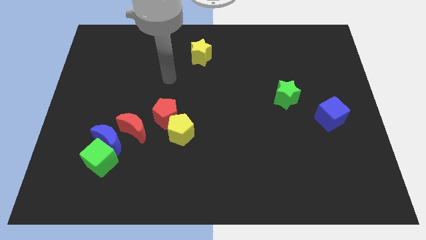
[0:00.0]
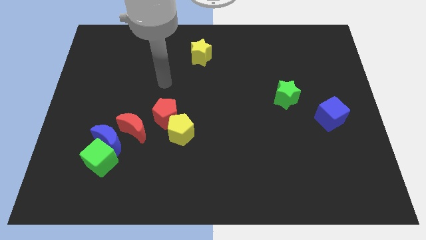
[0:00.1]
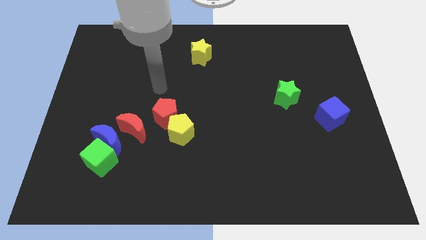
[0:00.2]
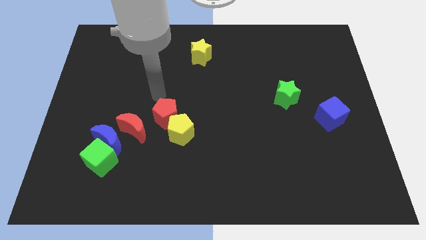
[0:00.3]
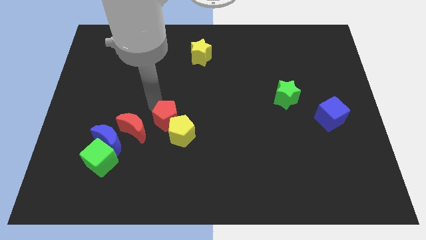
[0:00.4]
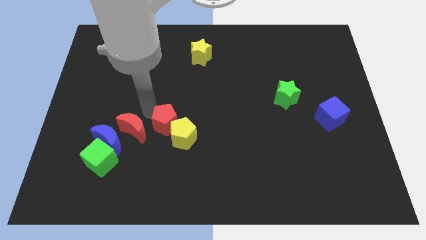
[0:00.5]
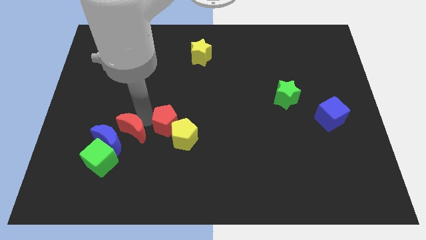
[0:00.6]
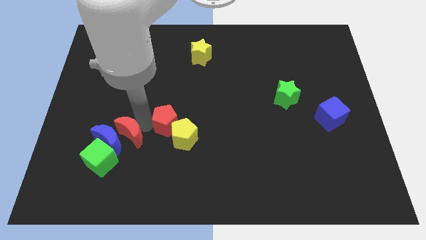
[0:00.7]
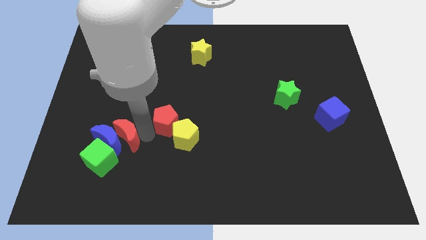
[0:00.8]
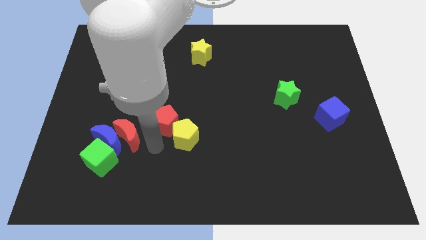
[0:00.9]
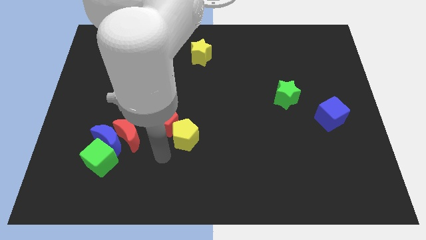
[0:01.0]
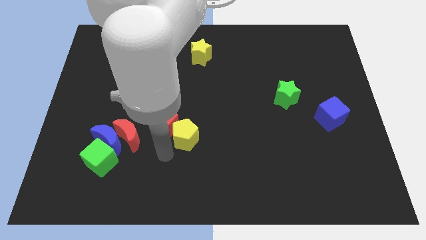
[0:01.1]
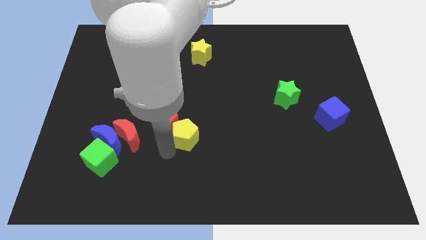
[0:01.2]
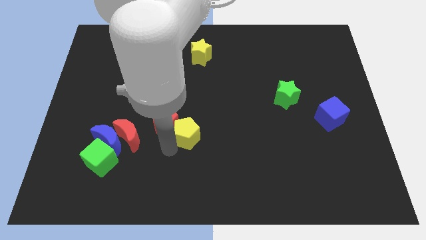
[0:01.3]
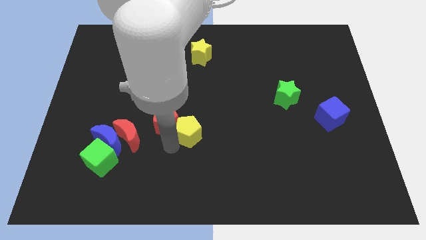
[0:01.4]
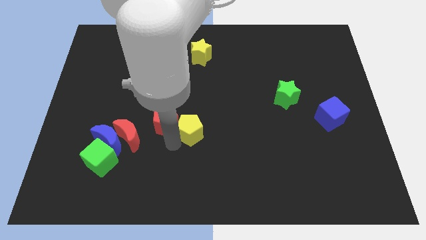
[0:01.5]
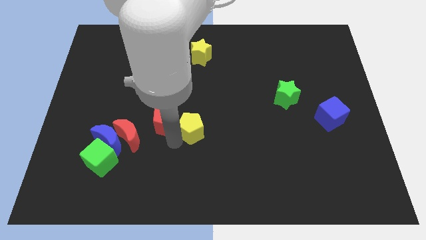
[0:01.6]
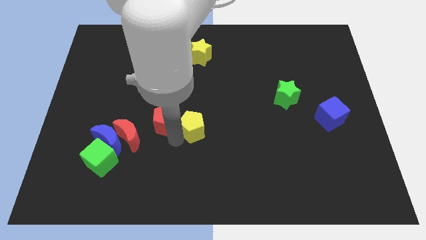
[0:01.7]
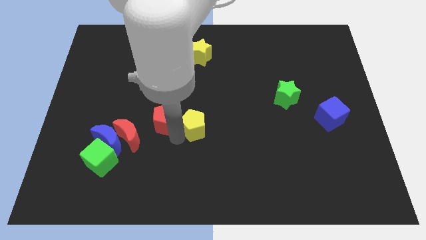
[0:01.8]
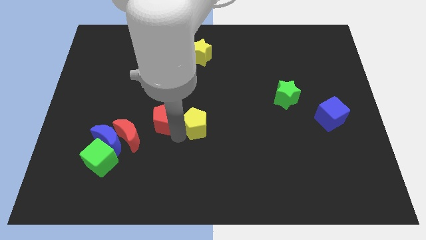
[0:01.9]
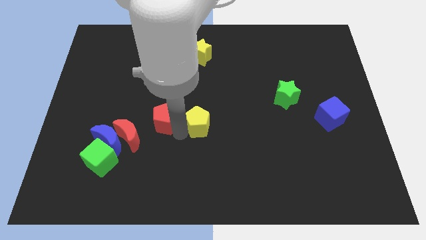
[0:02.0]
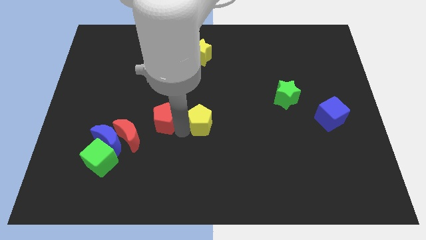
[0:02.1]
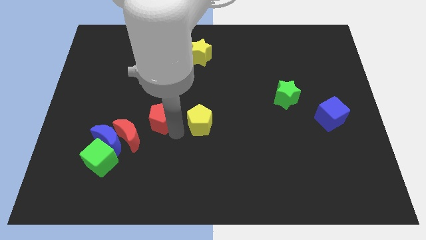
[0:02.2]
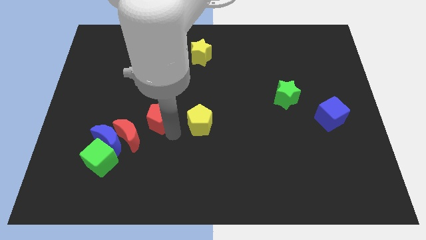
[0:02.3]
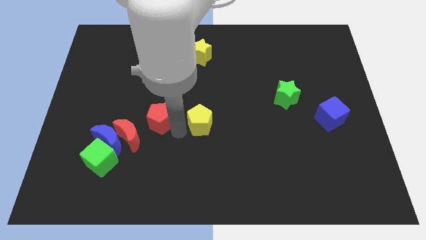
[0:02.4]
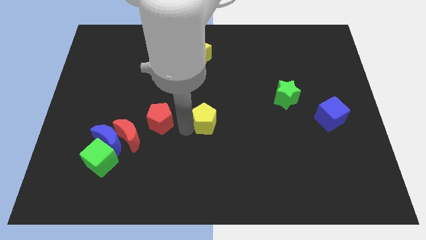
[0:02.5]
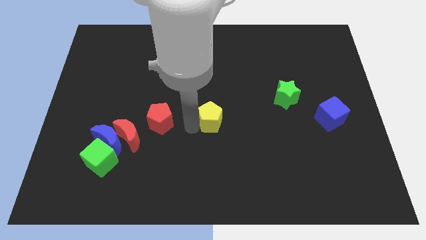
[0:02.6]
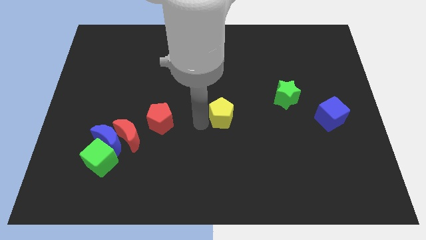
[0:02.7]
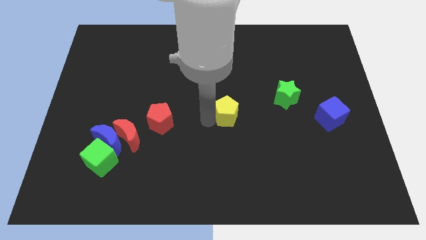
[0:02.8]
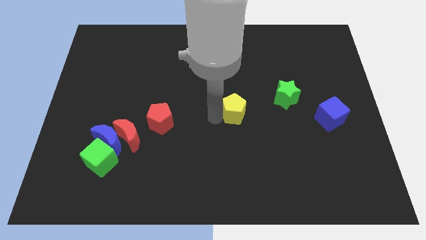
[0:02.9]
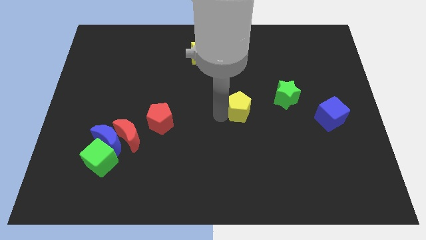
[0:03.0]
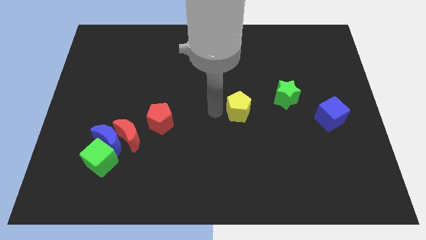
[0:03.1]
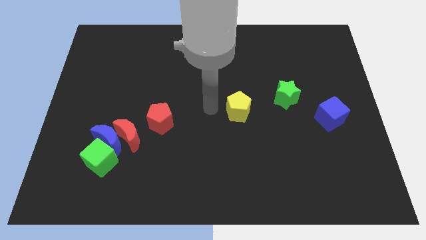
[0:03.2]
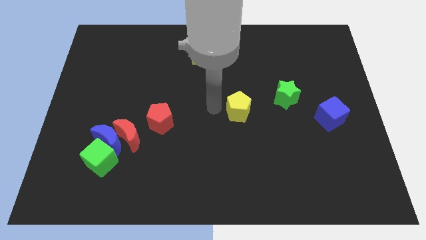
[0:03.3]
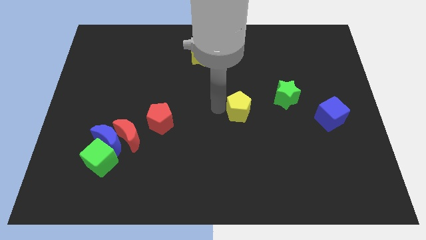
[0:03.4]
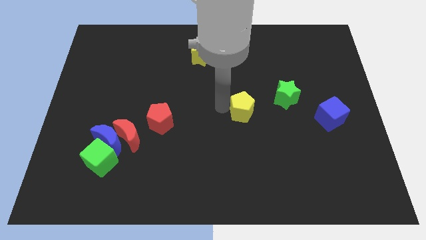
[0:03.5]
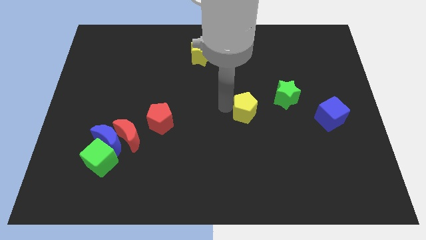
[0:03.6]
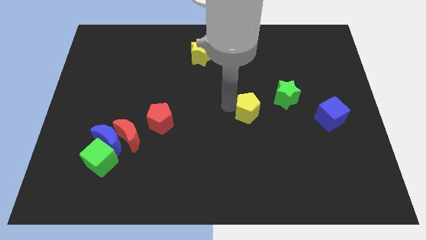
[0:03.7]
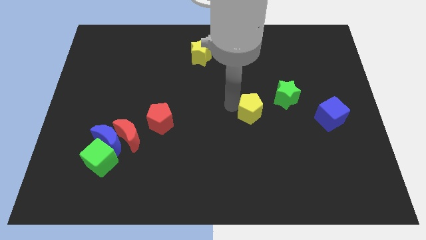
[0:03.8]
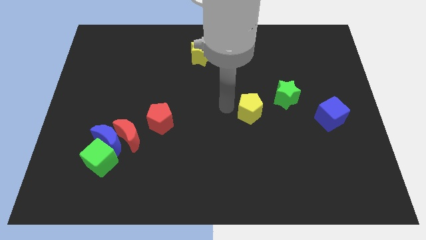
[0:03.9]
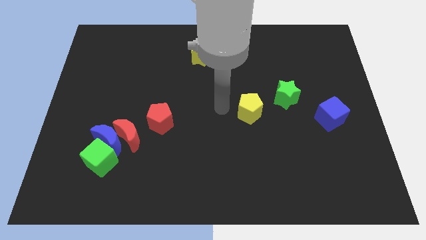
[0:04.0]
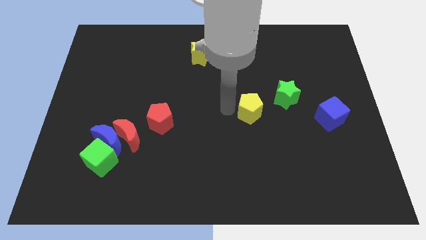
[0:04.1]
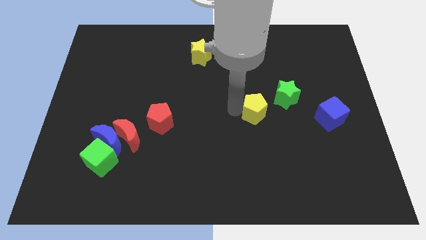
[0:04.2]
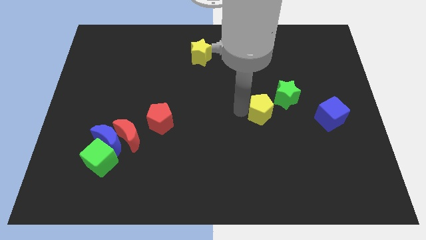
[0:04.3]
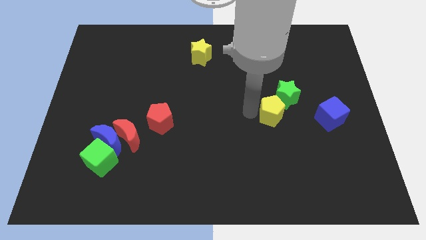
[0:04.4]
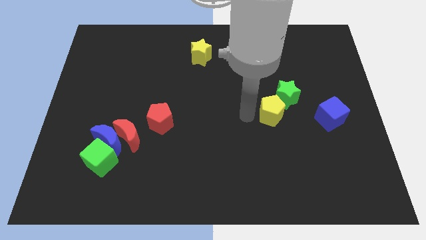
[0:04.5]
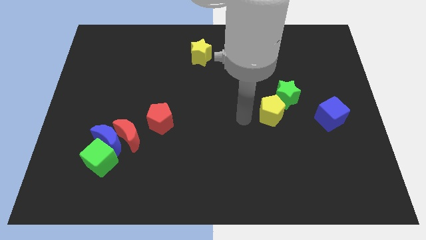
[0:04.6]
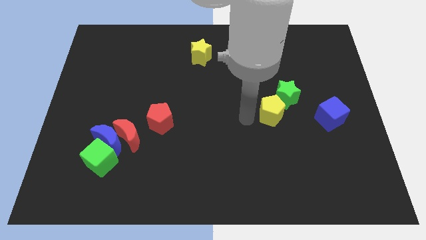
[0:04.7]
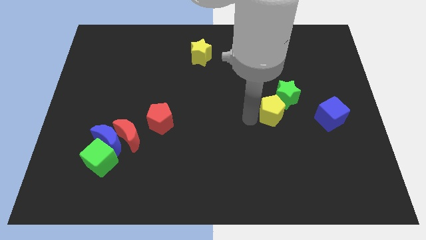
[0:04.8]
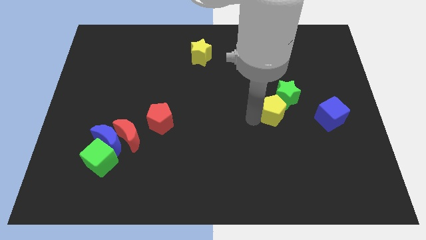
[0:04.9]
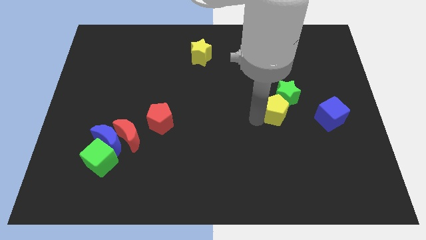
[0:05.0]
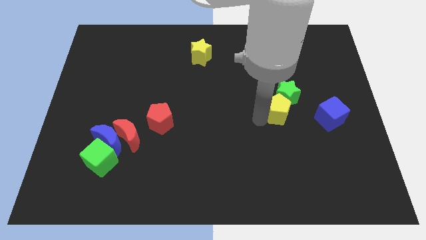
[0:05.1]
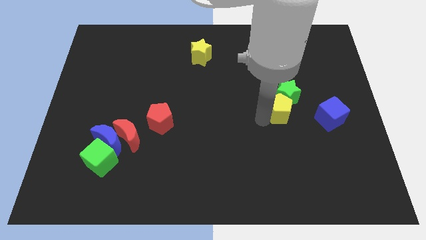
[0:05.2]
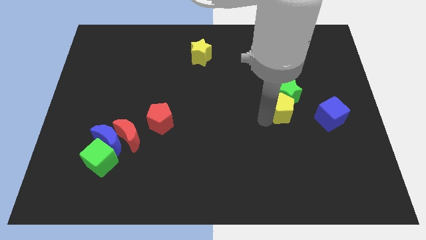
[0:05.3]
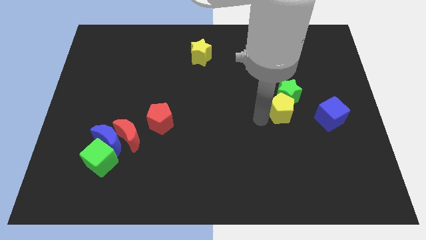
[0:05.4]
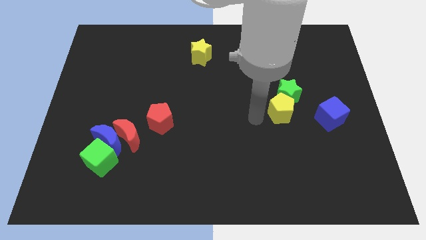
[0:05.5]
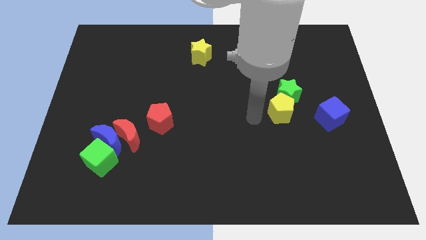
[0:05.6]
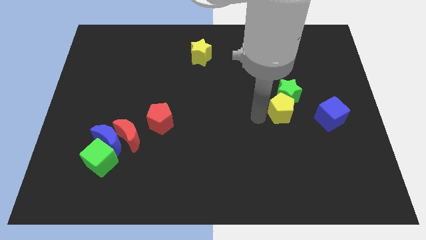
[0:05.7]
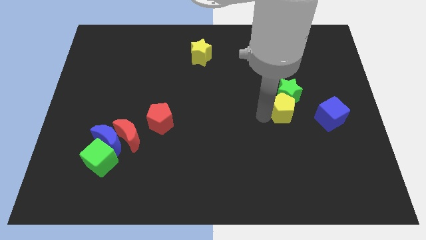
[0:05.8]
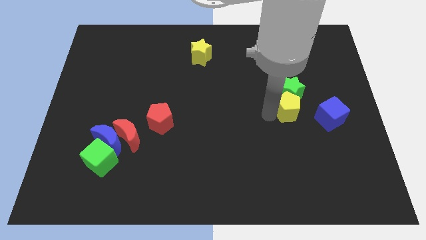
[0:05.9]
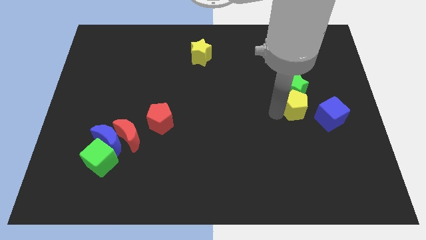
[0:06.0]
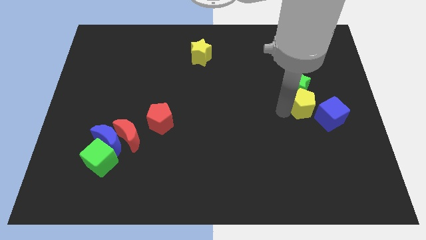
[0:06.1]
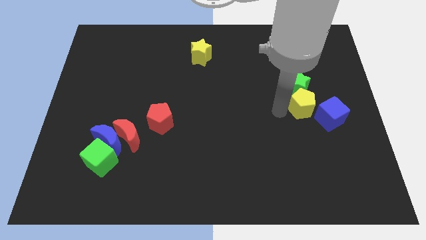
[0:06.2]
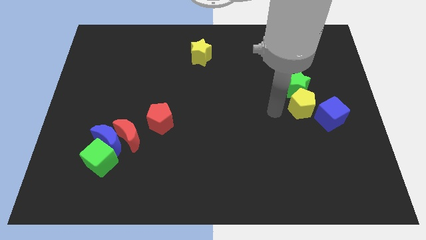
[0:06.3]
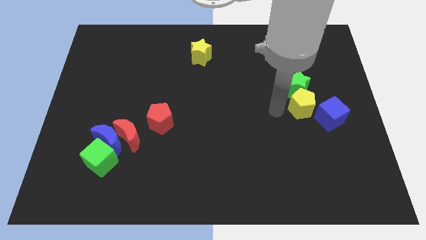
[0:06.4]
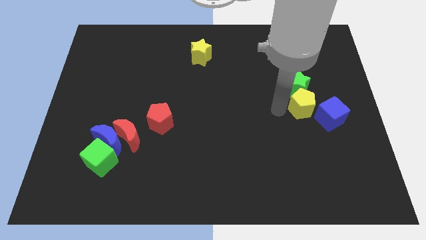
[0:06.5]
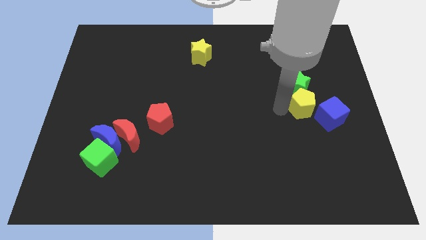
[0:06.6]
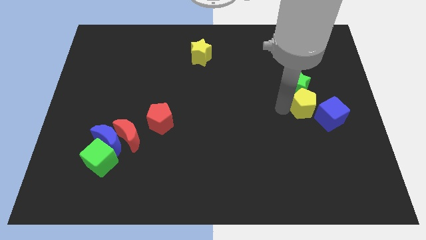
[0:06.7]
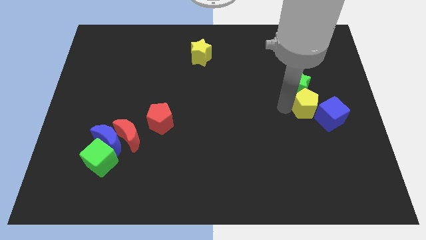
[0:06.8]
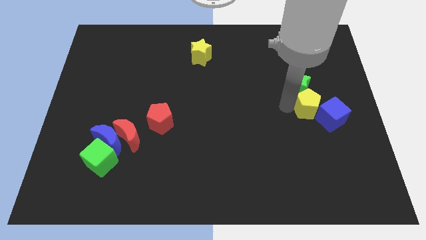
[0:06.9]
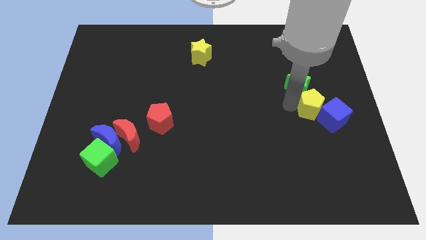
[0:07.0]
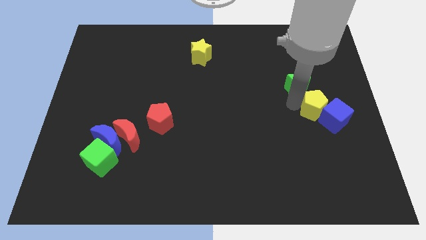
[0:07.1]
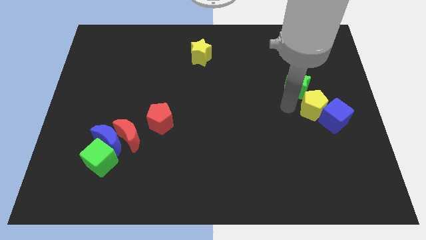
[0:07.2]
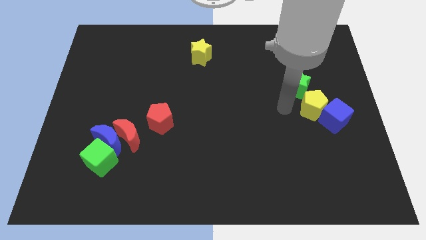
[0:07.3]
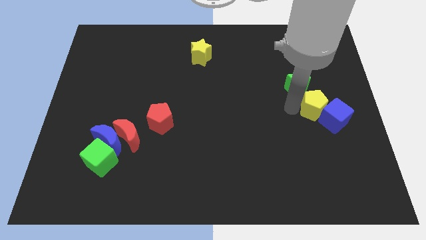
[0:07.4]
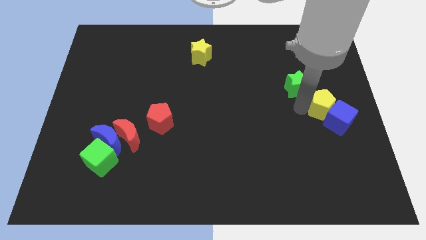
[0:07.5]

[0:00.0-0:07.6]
push the yellow pentagon to the right side of the board
